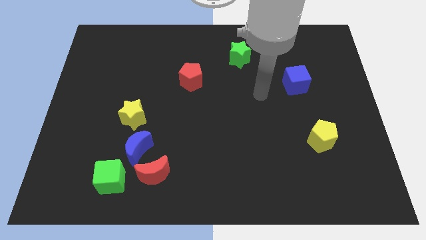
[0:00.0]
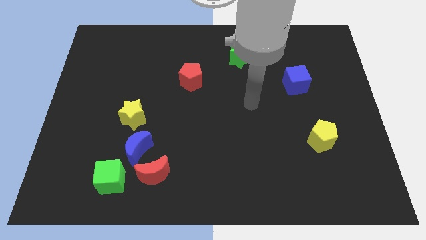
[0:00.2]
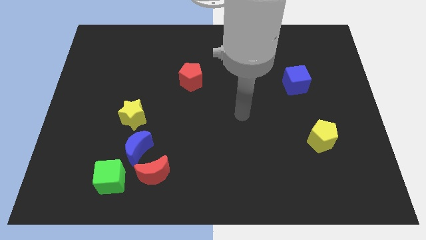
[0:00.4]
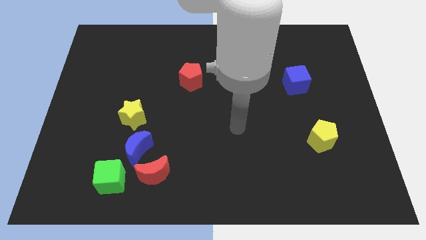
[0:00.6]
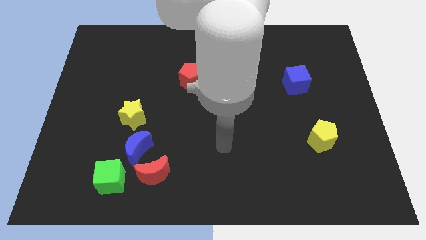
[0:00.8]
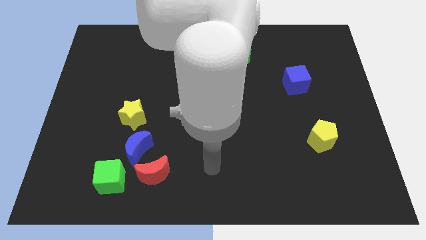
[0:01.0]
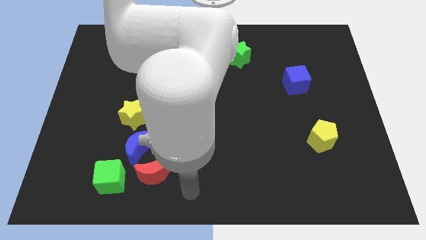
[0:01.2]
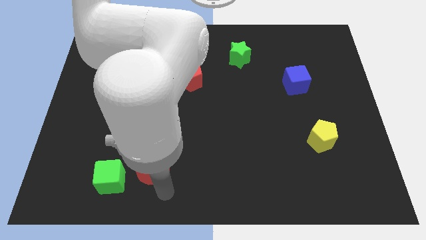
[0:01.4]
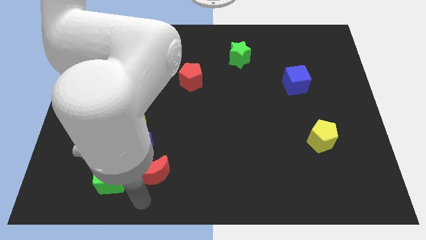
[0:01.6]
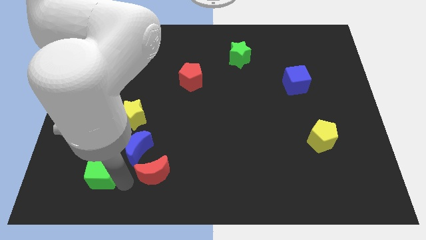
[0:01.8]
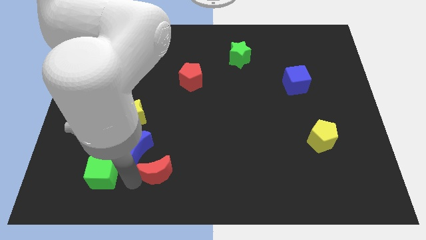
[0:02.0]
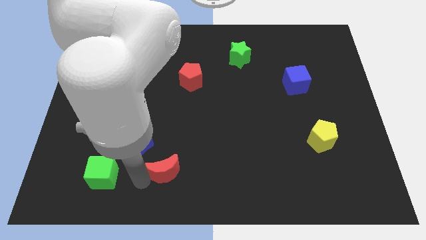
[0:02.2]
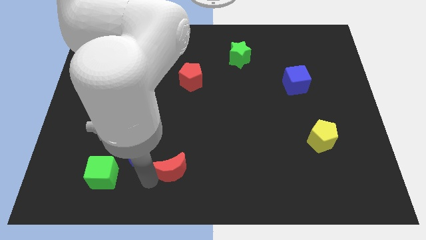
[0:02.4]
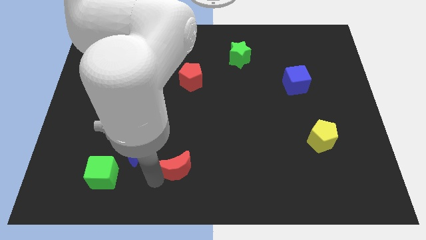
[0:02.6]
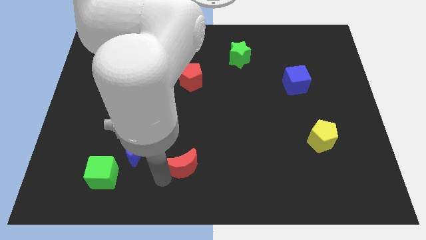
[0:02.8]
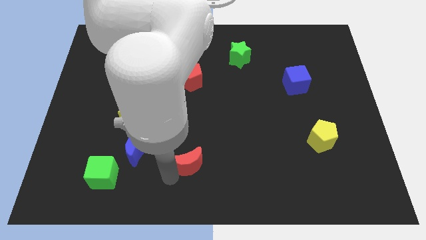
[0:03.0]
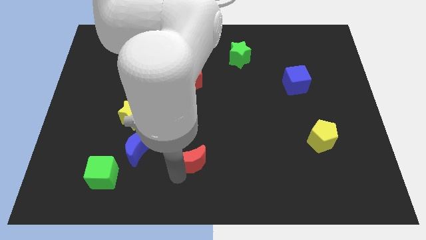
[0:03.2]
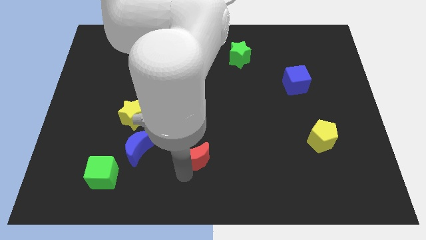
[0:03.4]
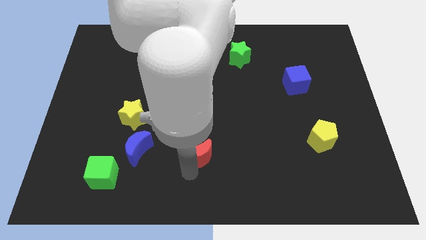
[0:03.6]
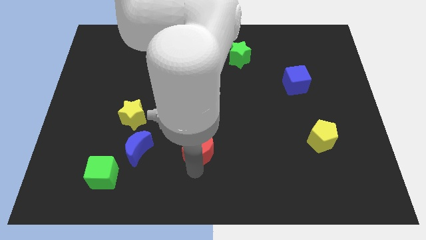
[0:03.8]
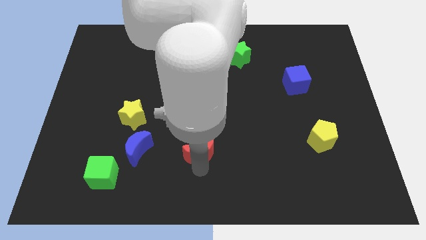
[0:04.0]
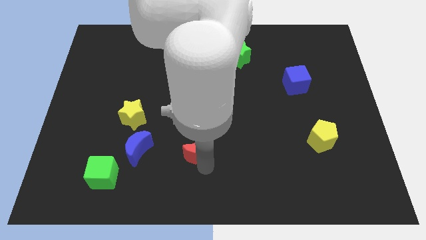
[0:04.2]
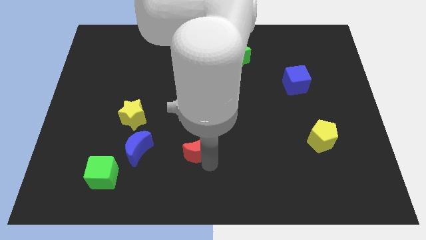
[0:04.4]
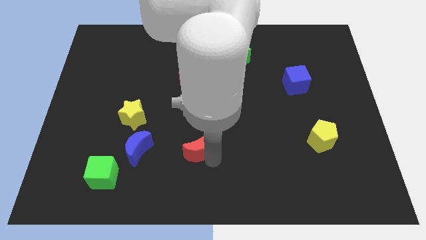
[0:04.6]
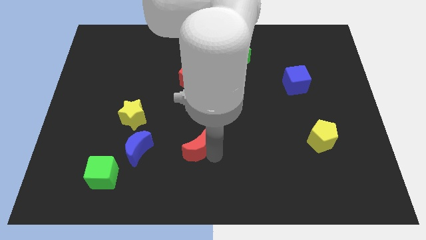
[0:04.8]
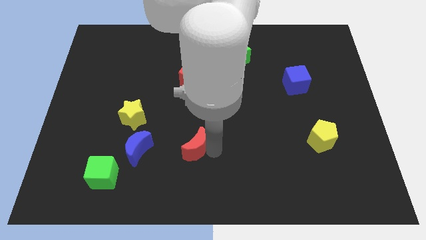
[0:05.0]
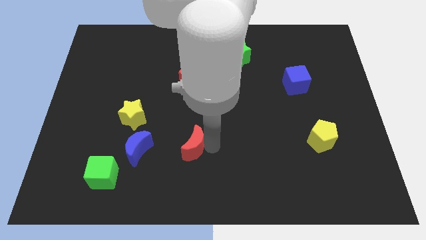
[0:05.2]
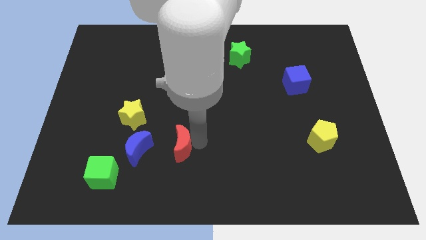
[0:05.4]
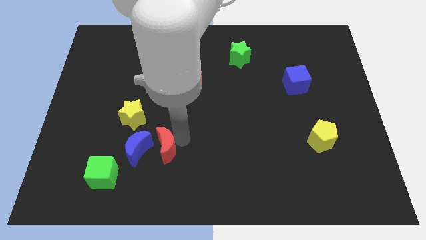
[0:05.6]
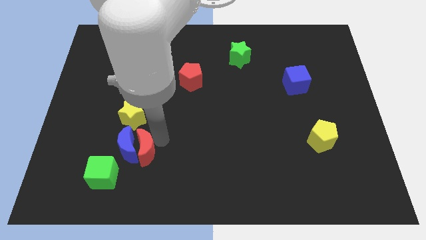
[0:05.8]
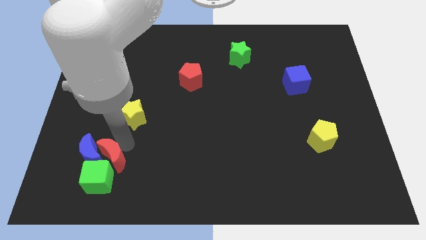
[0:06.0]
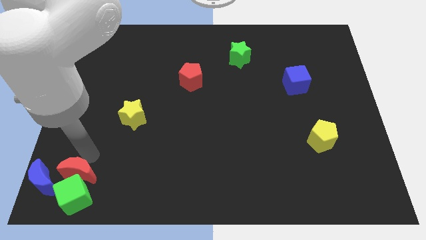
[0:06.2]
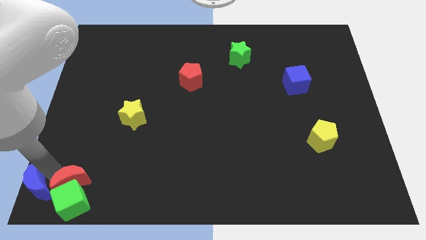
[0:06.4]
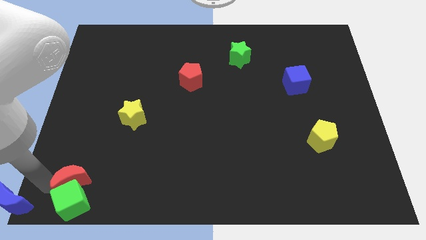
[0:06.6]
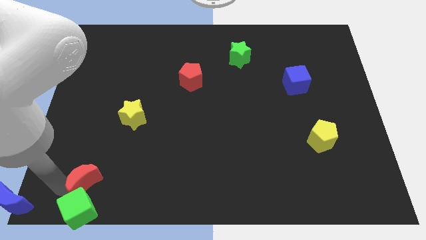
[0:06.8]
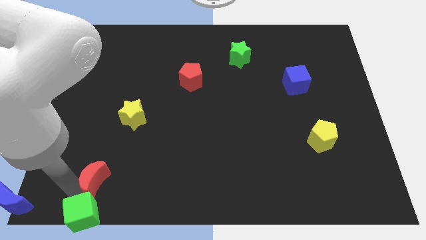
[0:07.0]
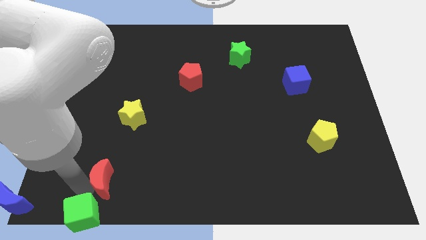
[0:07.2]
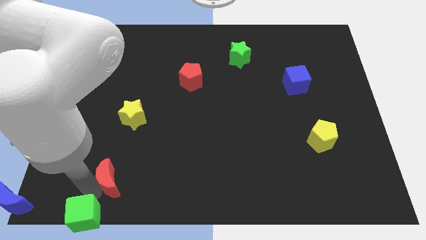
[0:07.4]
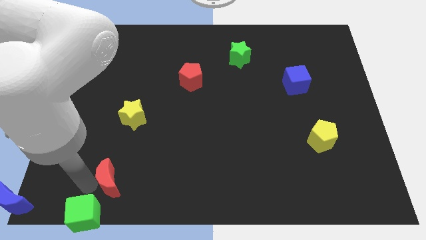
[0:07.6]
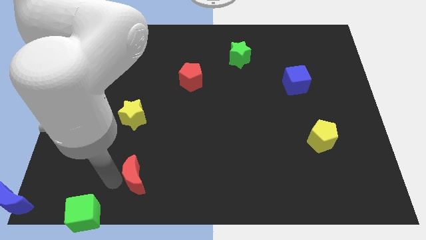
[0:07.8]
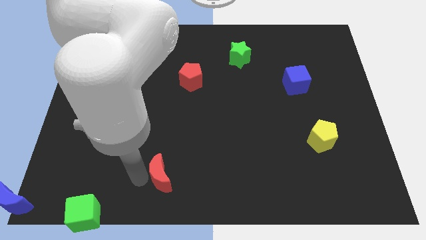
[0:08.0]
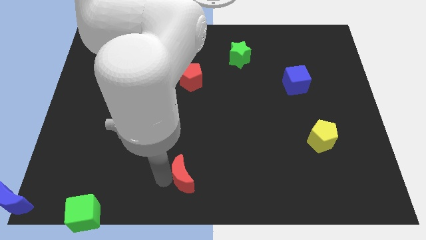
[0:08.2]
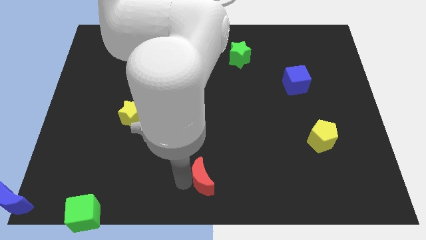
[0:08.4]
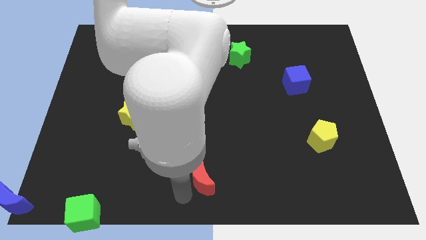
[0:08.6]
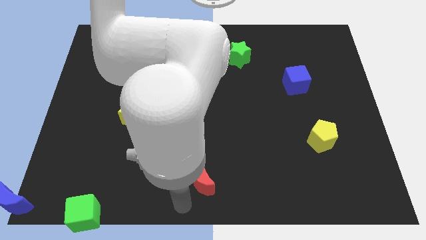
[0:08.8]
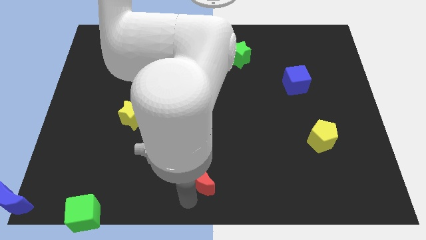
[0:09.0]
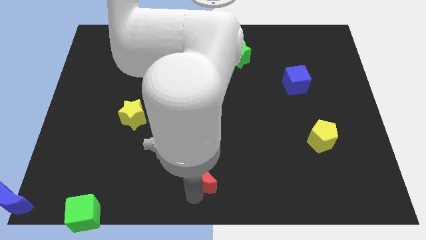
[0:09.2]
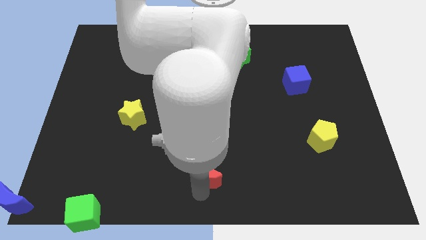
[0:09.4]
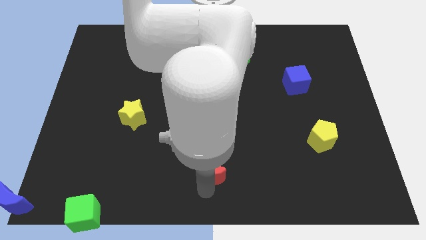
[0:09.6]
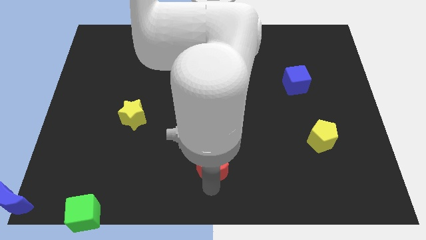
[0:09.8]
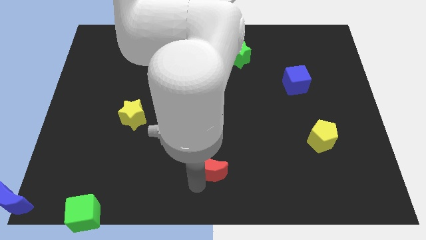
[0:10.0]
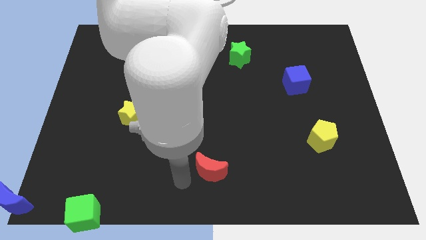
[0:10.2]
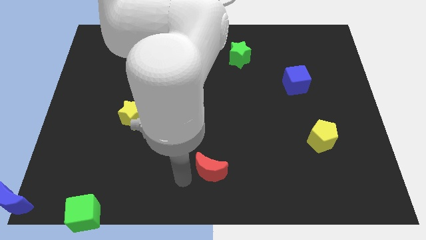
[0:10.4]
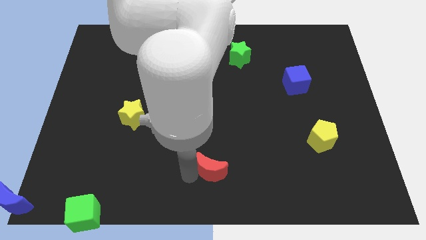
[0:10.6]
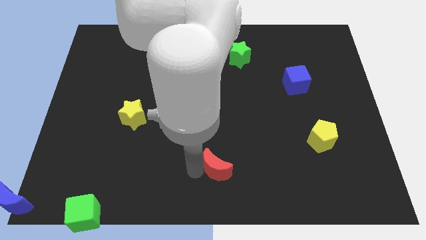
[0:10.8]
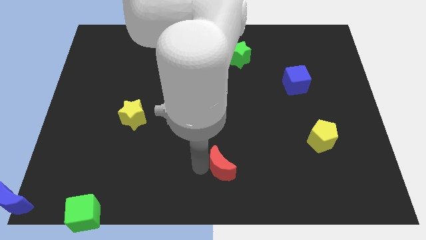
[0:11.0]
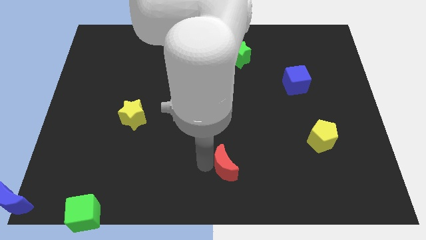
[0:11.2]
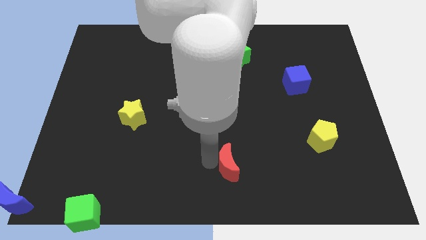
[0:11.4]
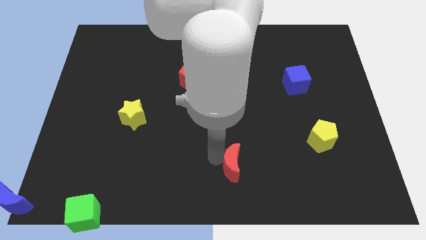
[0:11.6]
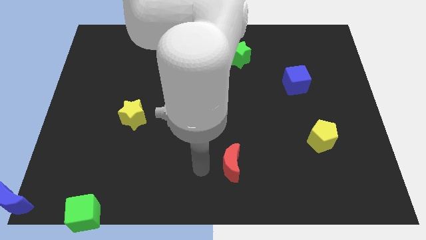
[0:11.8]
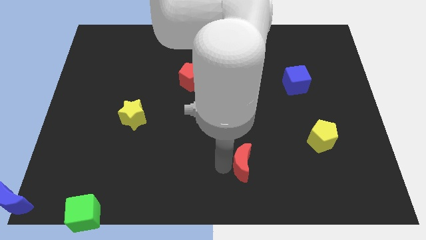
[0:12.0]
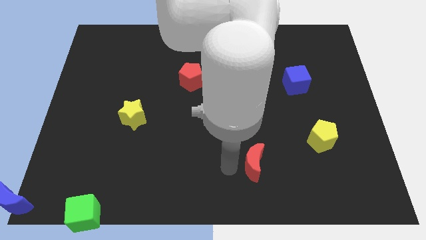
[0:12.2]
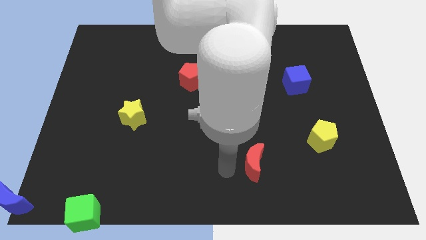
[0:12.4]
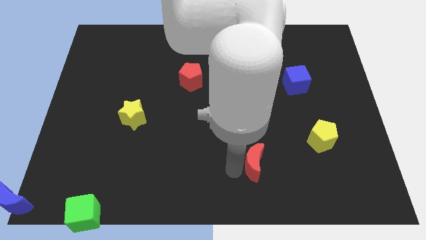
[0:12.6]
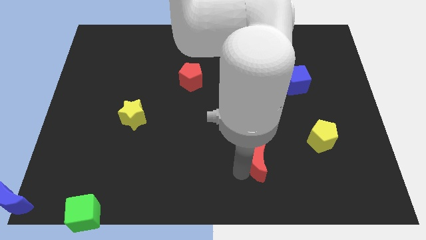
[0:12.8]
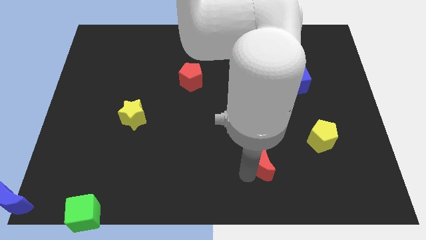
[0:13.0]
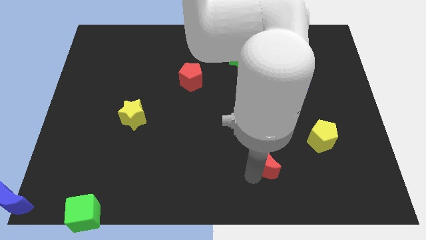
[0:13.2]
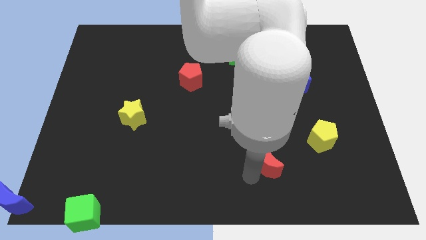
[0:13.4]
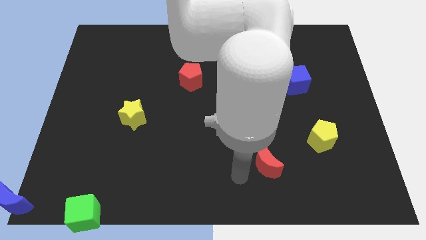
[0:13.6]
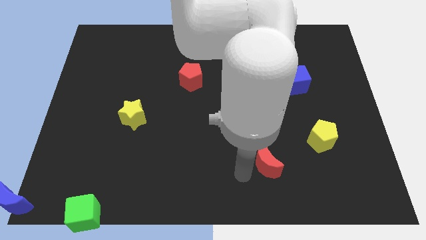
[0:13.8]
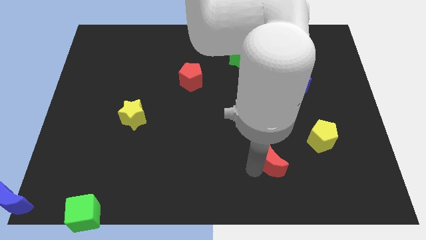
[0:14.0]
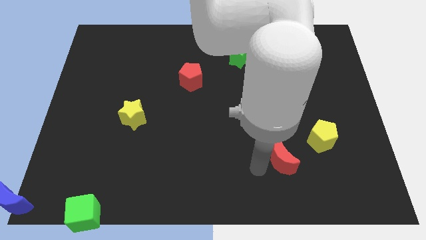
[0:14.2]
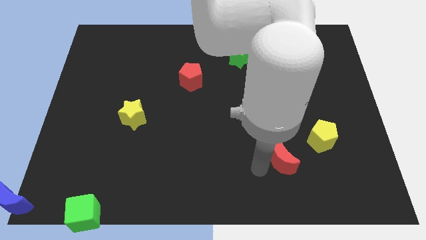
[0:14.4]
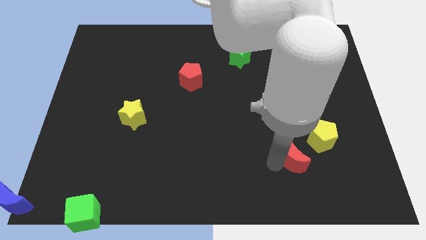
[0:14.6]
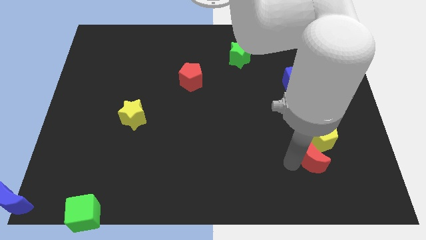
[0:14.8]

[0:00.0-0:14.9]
put the red moon close to the yellow pentagon
